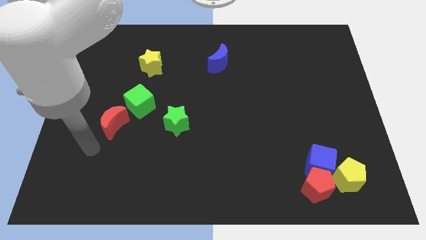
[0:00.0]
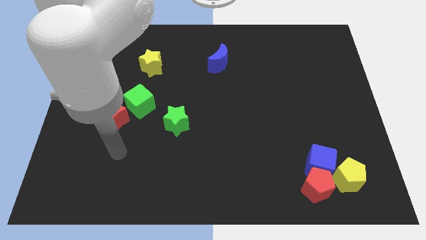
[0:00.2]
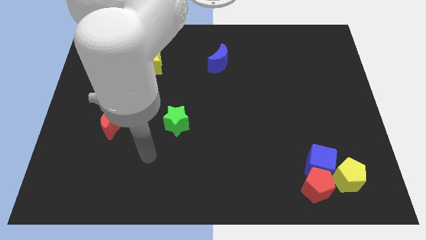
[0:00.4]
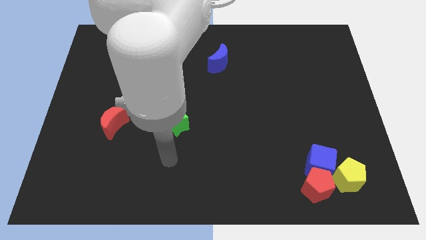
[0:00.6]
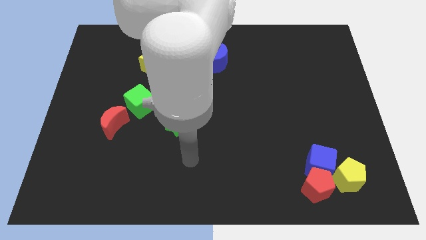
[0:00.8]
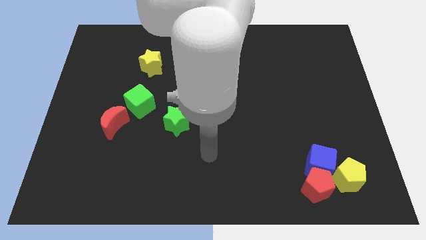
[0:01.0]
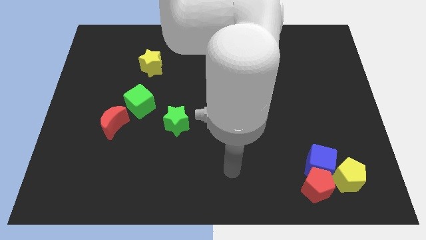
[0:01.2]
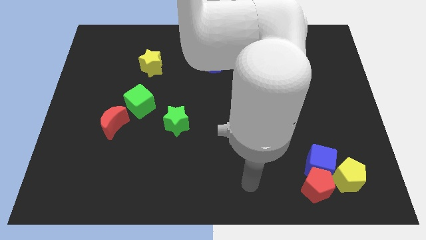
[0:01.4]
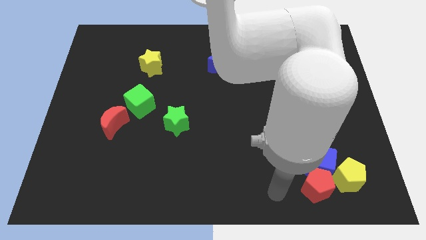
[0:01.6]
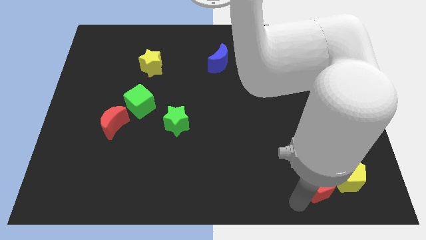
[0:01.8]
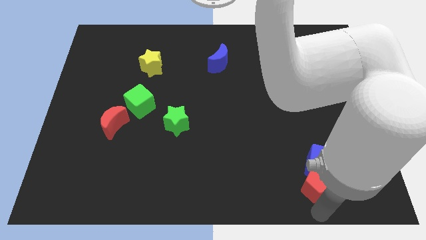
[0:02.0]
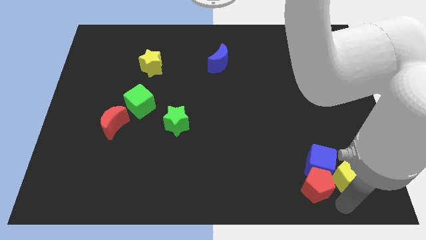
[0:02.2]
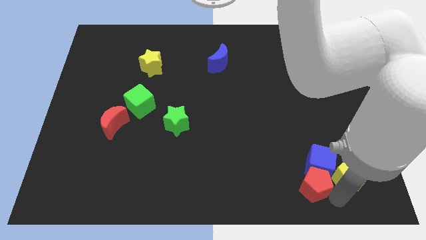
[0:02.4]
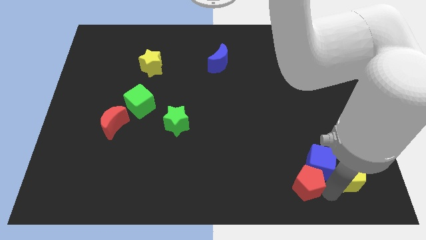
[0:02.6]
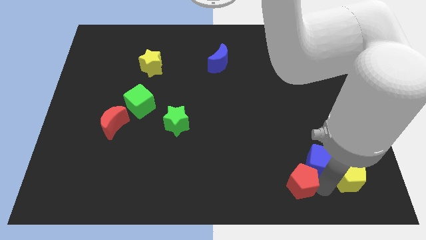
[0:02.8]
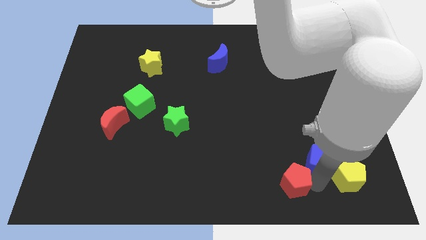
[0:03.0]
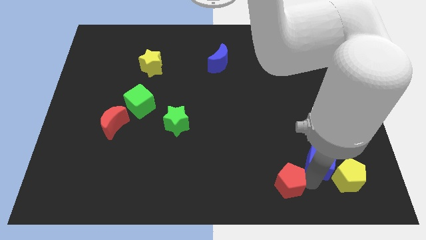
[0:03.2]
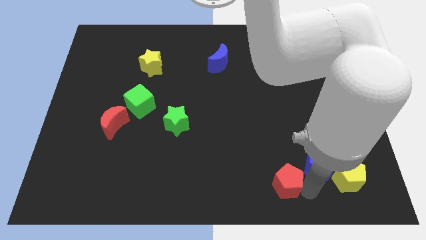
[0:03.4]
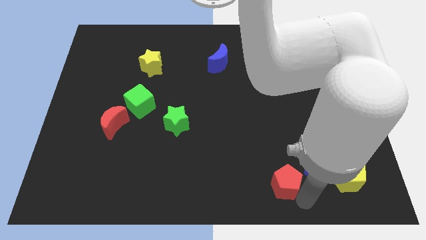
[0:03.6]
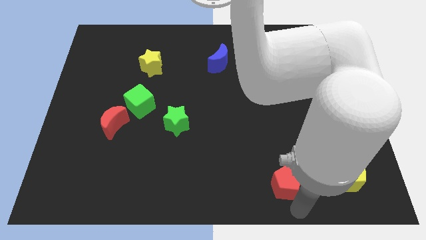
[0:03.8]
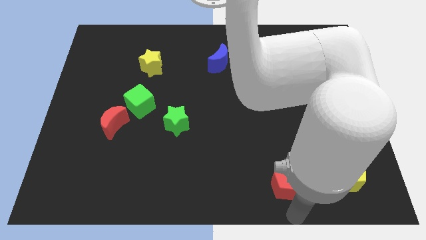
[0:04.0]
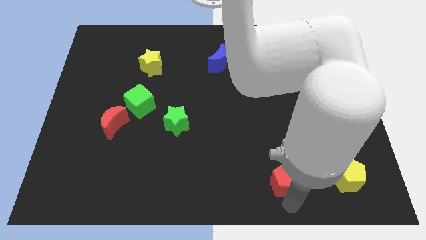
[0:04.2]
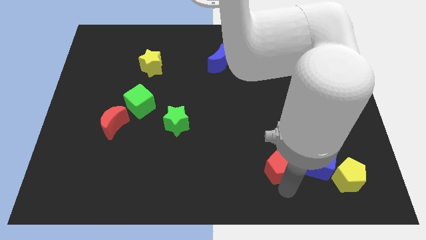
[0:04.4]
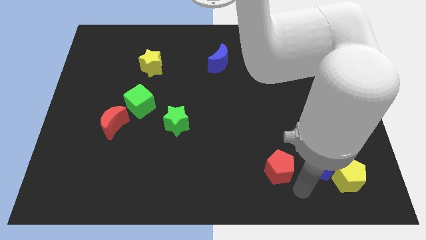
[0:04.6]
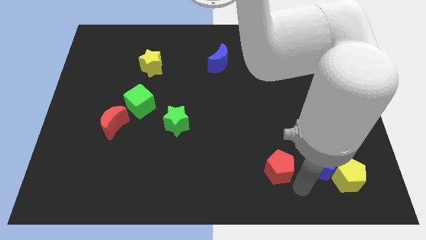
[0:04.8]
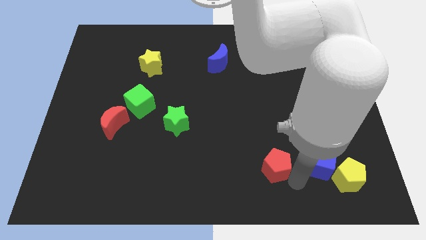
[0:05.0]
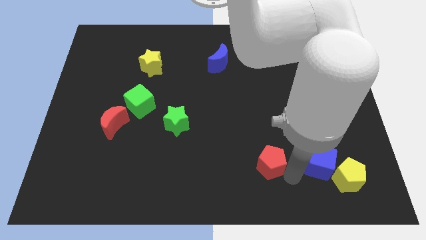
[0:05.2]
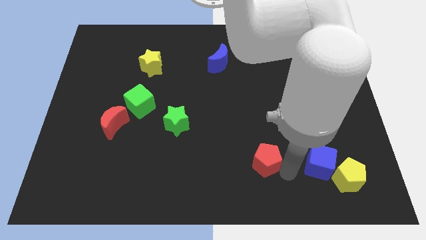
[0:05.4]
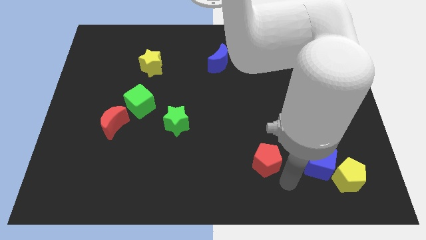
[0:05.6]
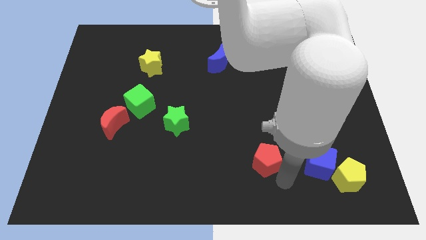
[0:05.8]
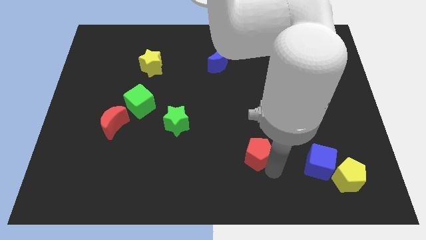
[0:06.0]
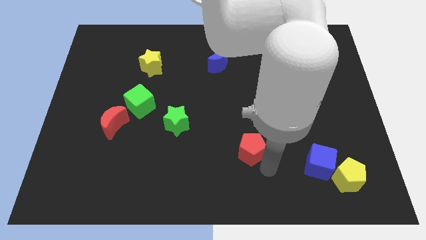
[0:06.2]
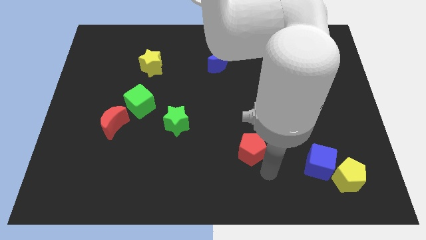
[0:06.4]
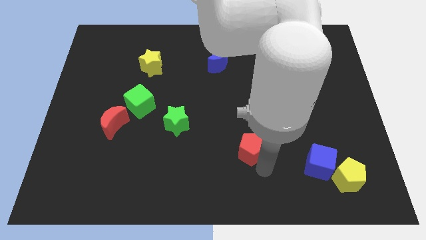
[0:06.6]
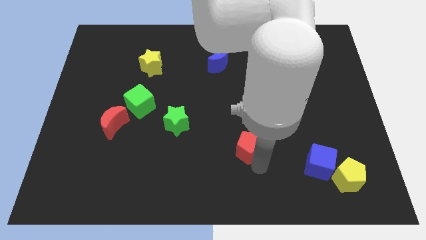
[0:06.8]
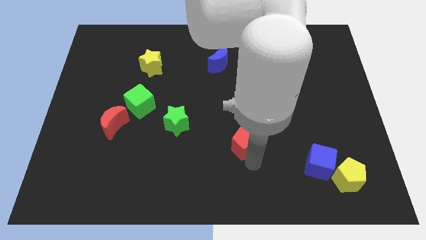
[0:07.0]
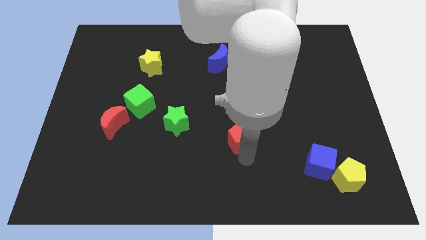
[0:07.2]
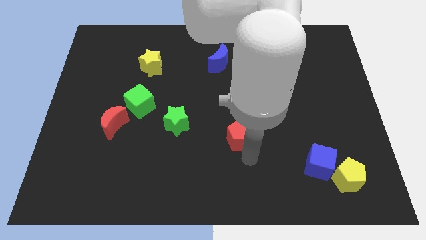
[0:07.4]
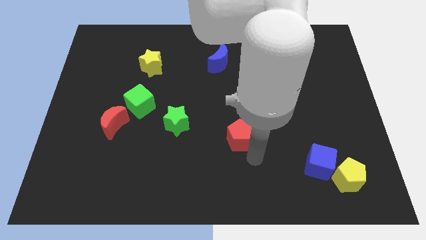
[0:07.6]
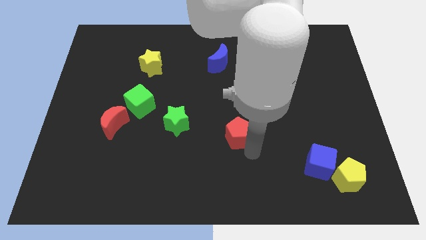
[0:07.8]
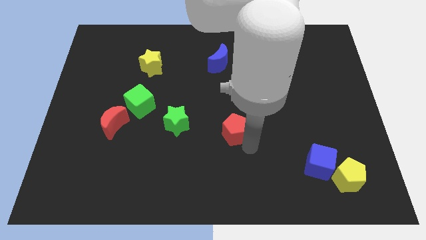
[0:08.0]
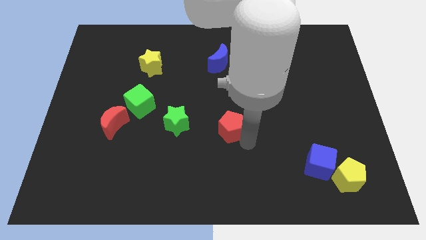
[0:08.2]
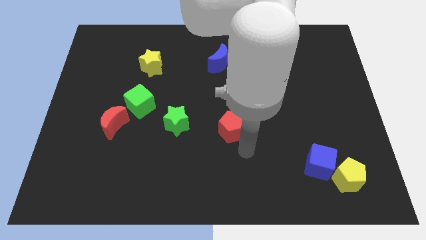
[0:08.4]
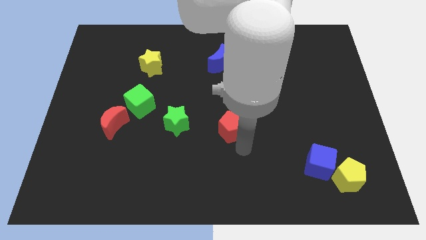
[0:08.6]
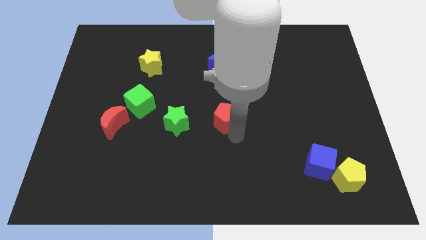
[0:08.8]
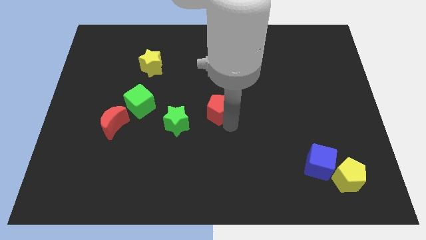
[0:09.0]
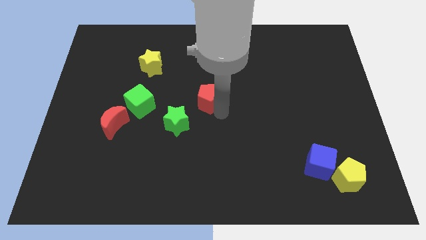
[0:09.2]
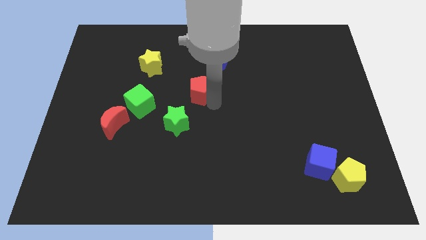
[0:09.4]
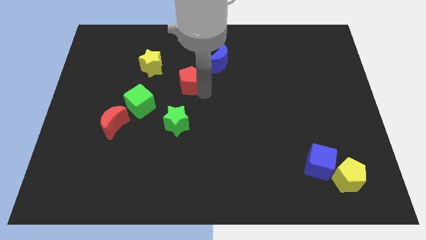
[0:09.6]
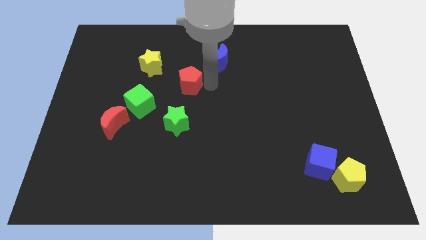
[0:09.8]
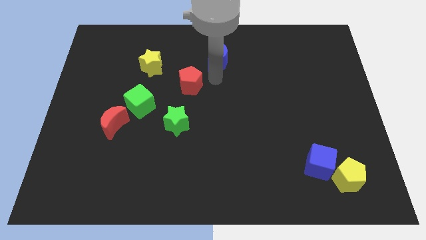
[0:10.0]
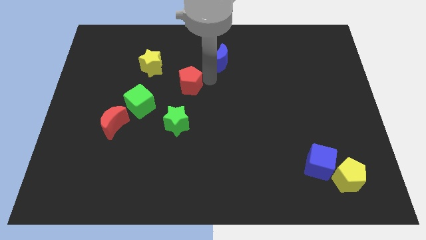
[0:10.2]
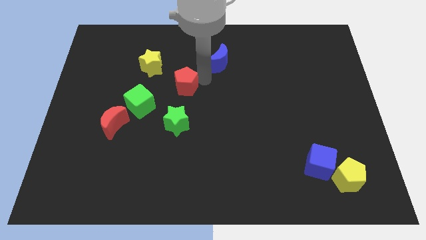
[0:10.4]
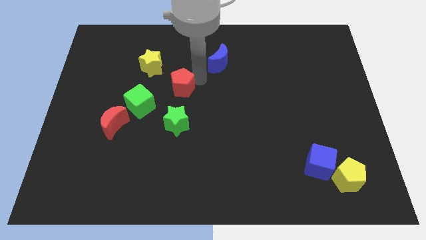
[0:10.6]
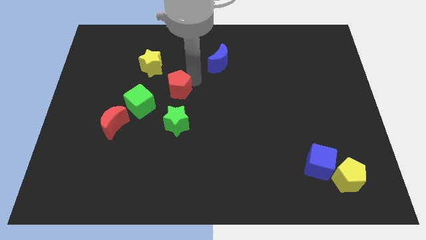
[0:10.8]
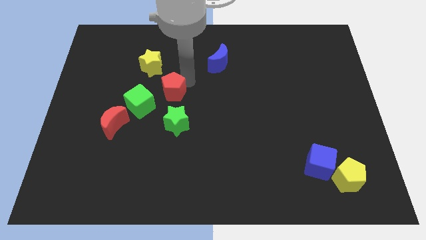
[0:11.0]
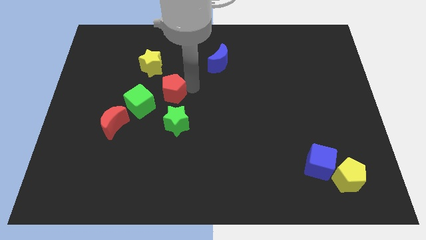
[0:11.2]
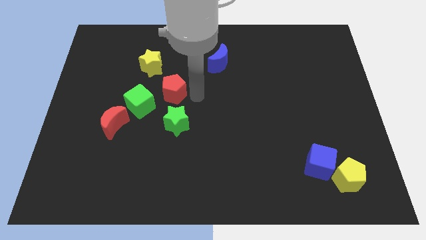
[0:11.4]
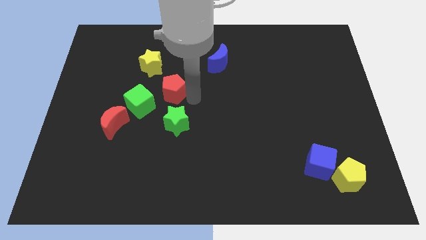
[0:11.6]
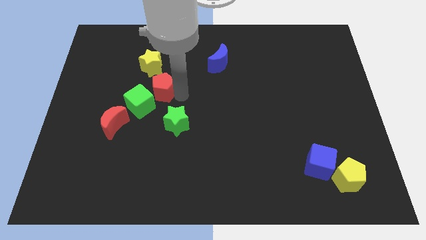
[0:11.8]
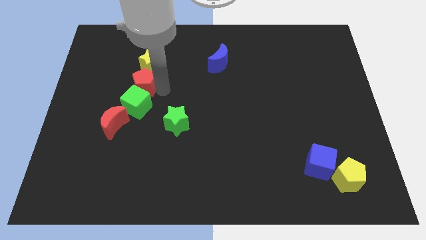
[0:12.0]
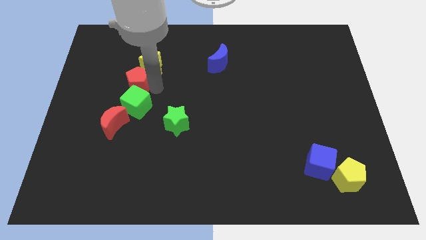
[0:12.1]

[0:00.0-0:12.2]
push the red pentagon to the top of the red moon

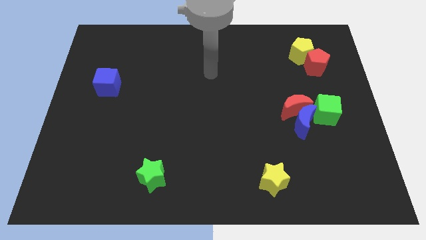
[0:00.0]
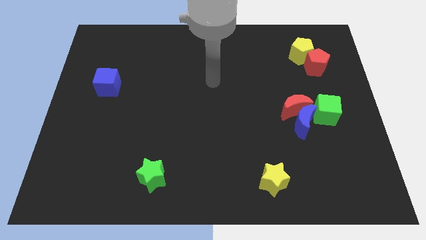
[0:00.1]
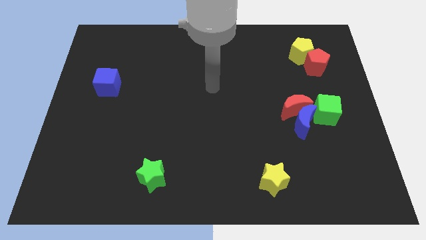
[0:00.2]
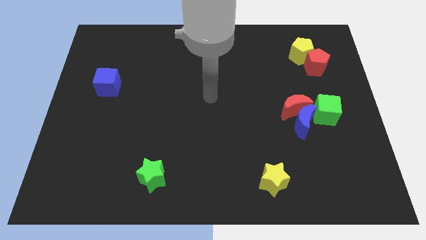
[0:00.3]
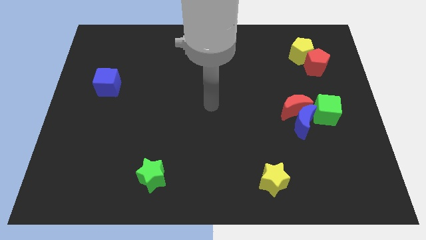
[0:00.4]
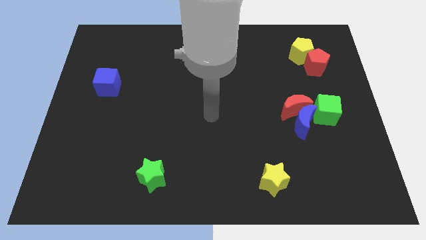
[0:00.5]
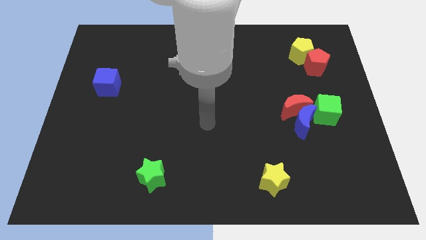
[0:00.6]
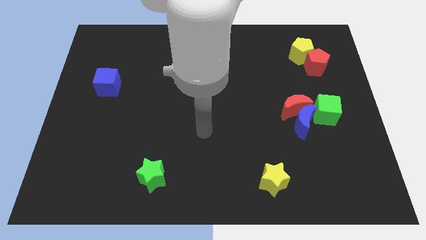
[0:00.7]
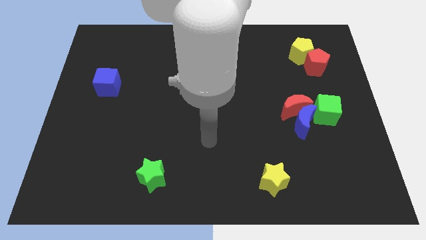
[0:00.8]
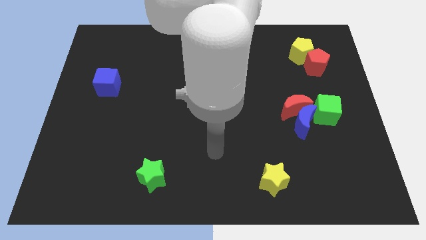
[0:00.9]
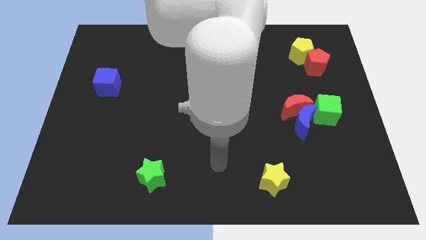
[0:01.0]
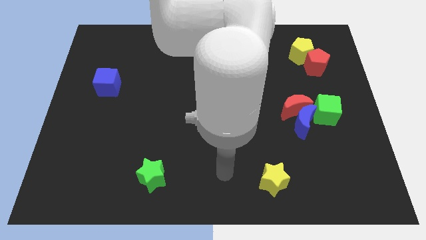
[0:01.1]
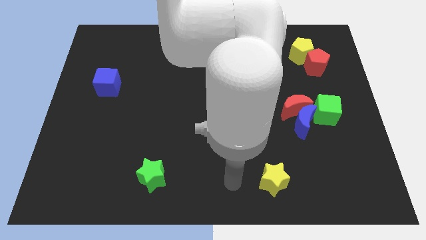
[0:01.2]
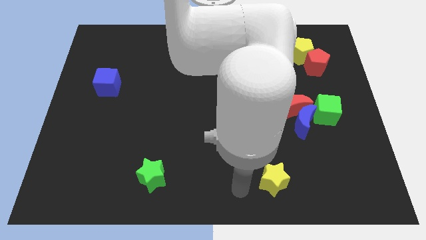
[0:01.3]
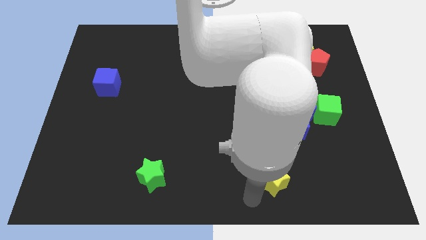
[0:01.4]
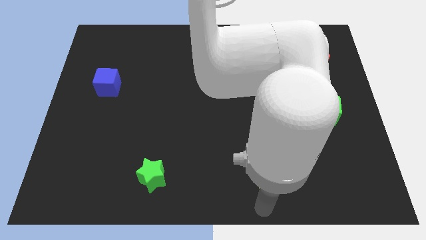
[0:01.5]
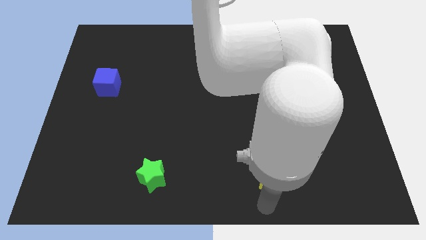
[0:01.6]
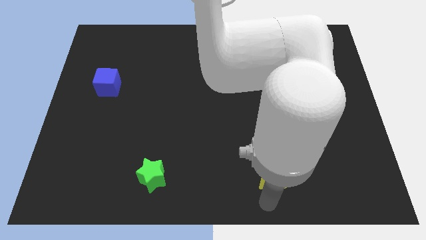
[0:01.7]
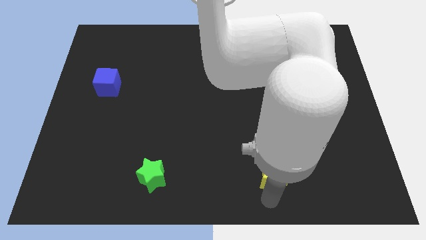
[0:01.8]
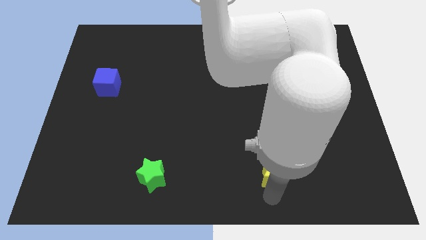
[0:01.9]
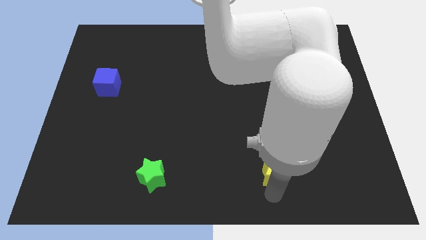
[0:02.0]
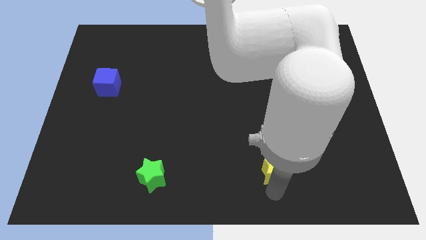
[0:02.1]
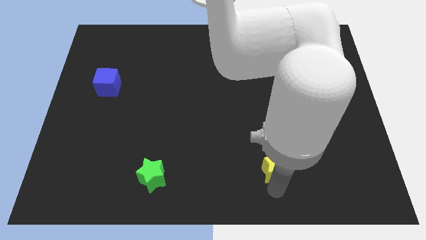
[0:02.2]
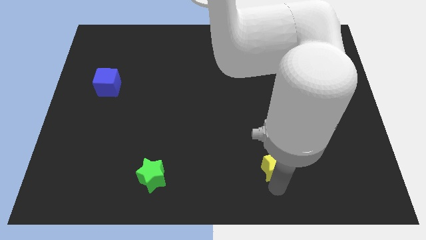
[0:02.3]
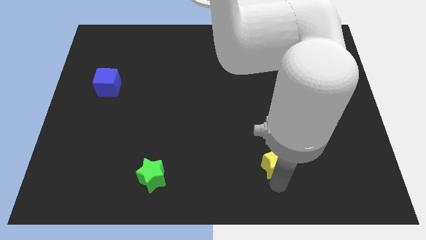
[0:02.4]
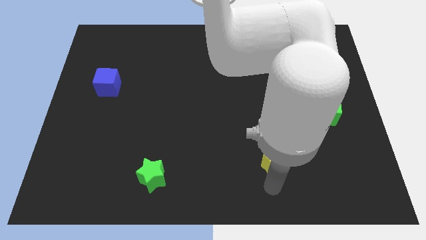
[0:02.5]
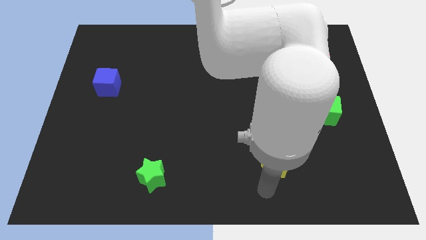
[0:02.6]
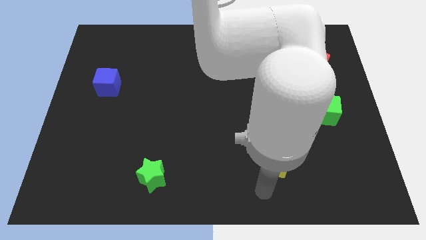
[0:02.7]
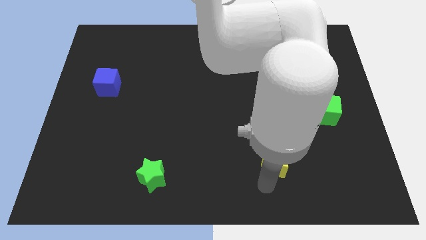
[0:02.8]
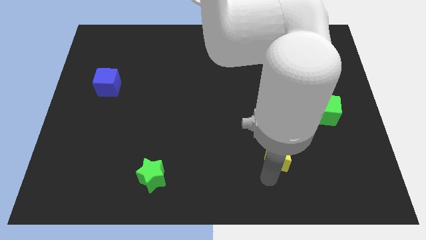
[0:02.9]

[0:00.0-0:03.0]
slide the yellow star to the bottom left of the blue moon
